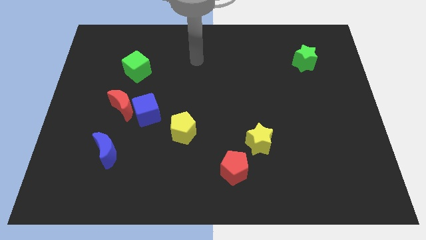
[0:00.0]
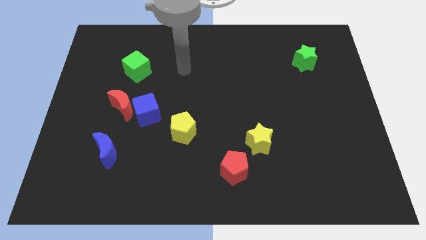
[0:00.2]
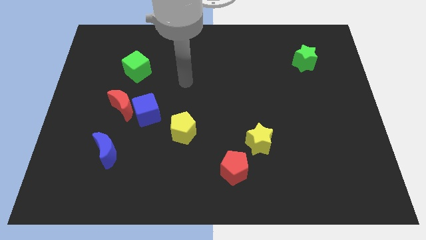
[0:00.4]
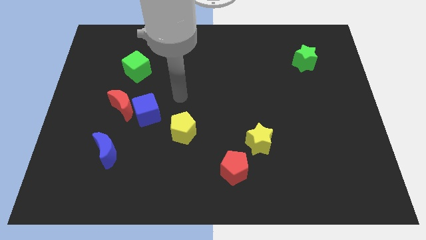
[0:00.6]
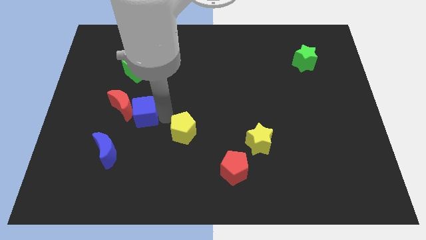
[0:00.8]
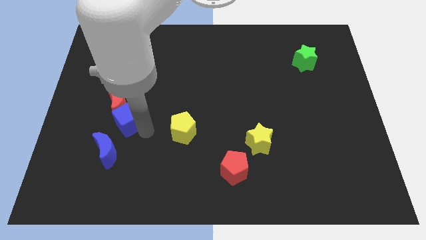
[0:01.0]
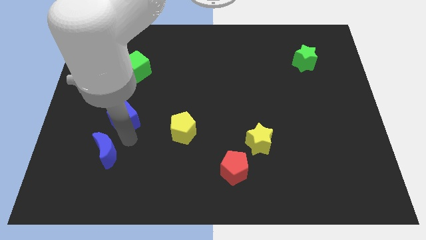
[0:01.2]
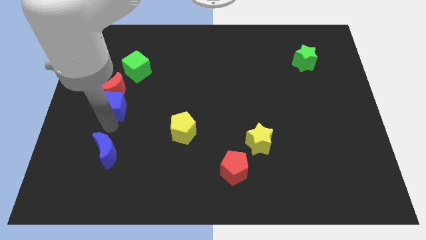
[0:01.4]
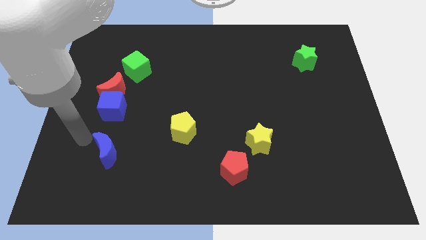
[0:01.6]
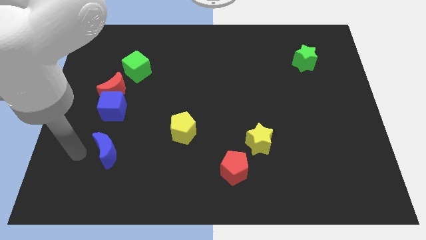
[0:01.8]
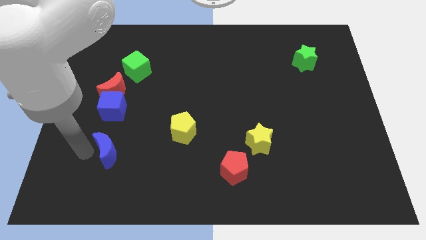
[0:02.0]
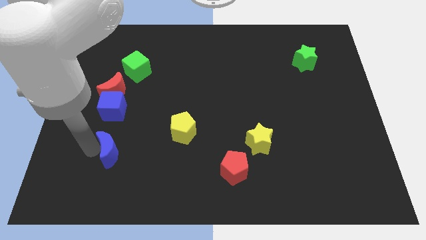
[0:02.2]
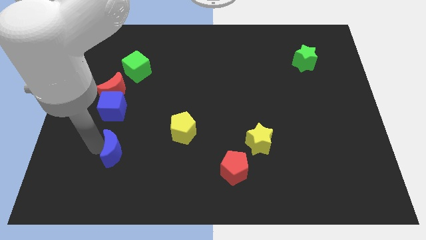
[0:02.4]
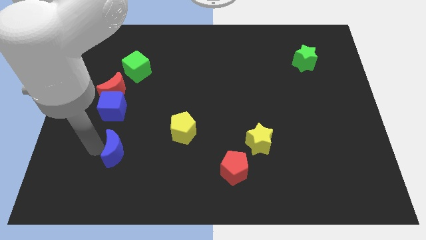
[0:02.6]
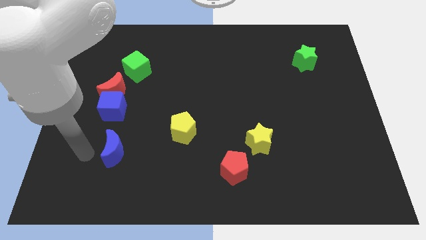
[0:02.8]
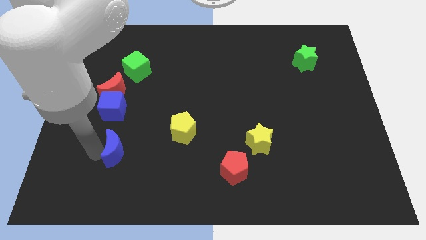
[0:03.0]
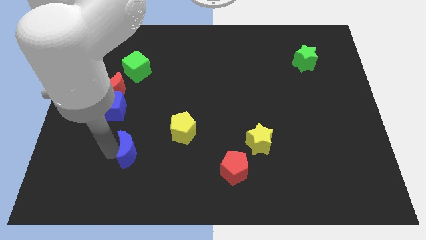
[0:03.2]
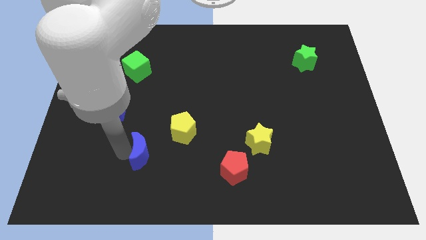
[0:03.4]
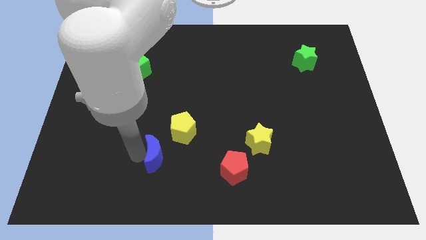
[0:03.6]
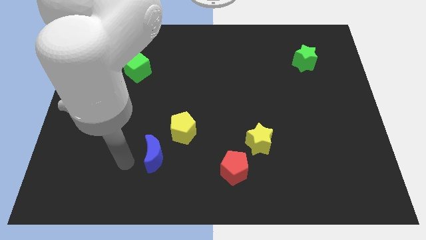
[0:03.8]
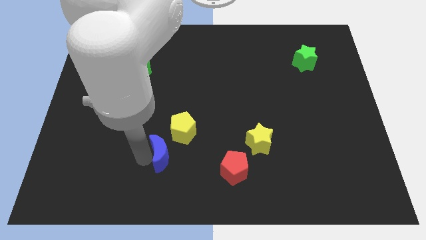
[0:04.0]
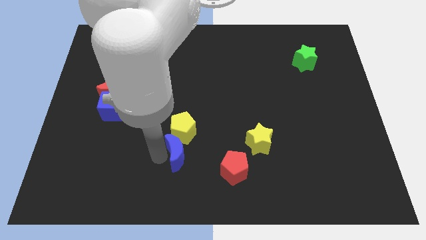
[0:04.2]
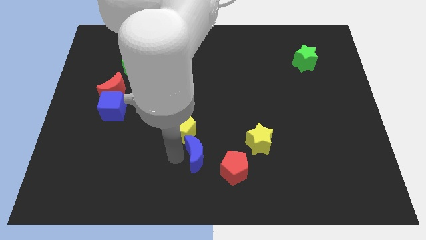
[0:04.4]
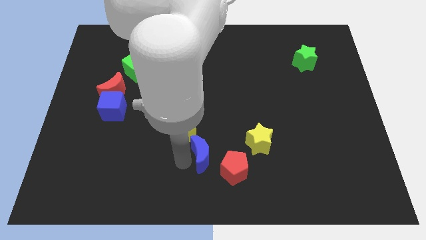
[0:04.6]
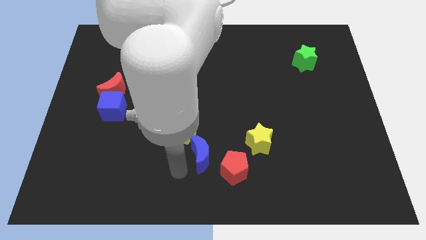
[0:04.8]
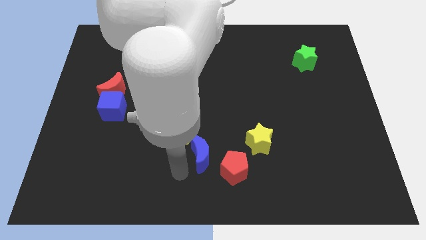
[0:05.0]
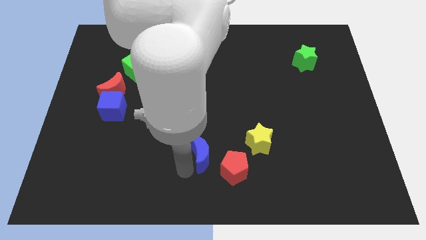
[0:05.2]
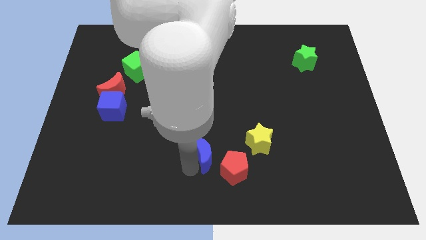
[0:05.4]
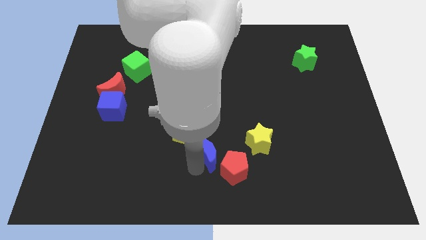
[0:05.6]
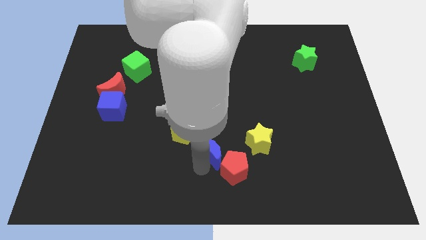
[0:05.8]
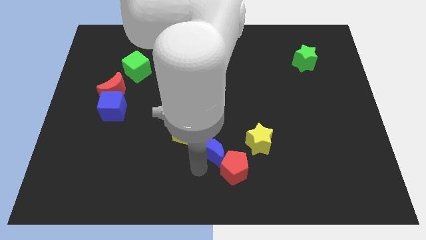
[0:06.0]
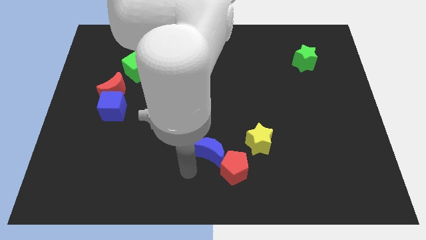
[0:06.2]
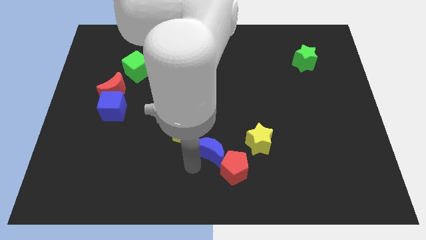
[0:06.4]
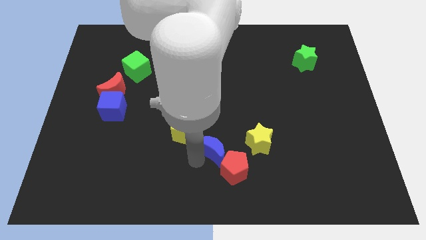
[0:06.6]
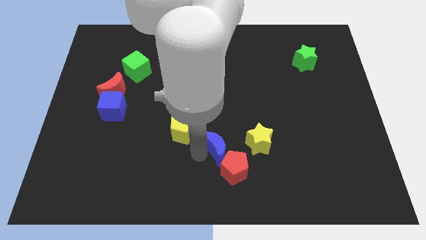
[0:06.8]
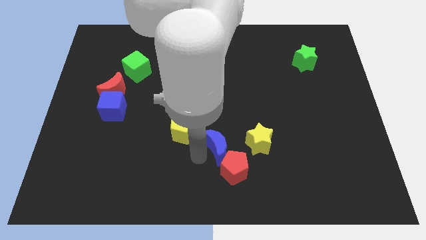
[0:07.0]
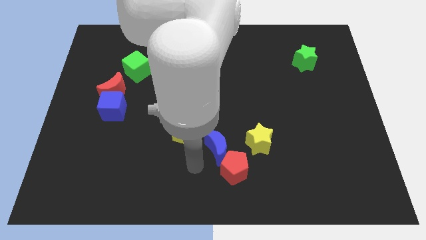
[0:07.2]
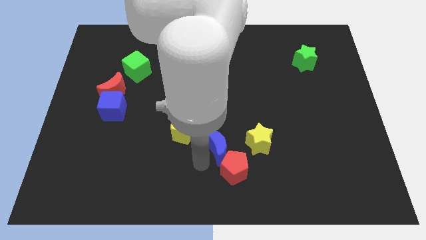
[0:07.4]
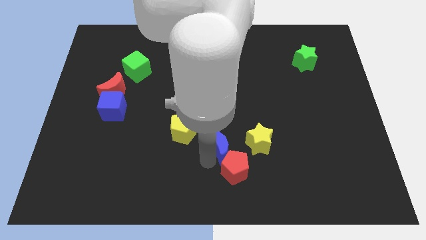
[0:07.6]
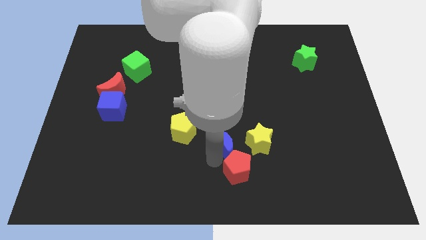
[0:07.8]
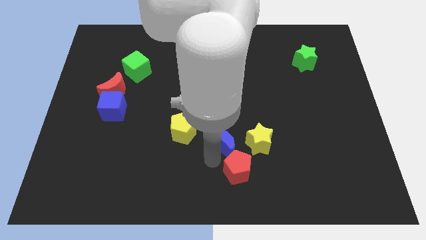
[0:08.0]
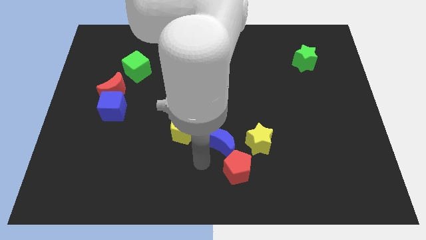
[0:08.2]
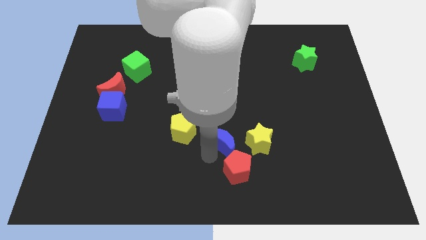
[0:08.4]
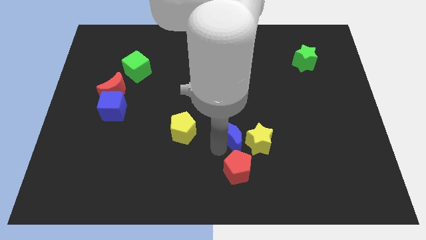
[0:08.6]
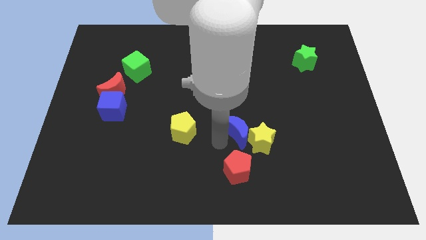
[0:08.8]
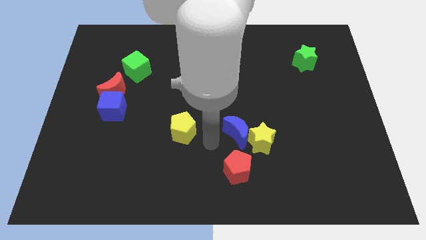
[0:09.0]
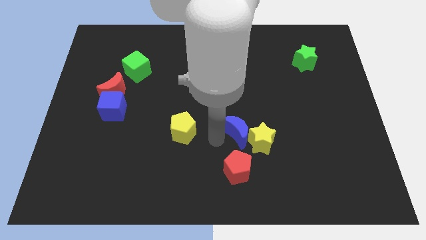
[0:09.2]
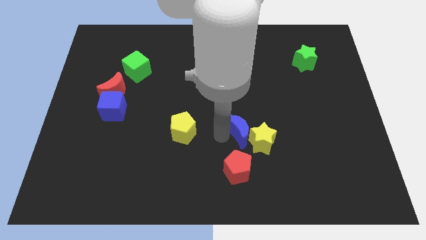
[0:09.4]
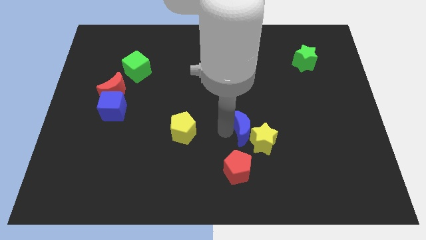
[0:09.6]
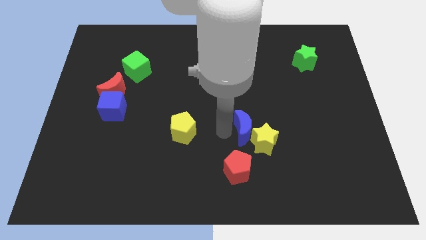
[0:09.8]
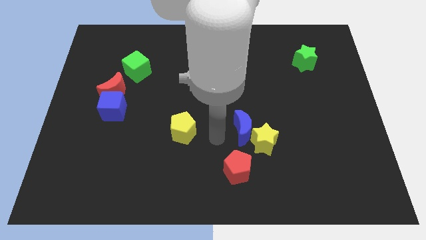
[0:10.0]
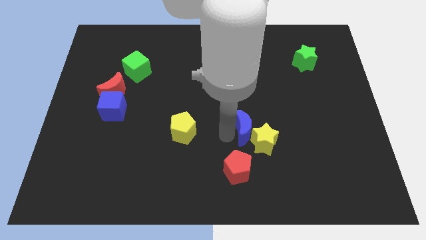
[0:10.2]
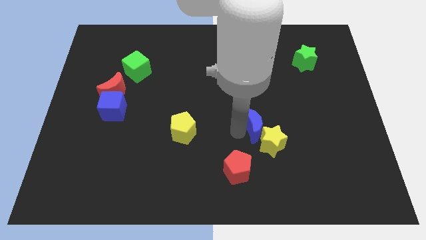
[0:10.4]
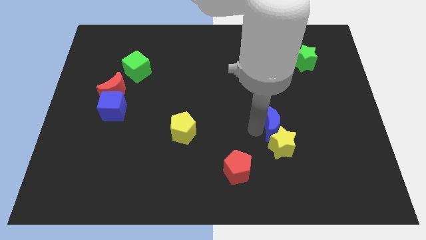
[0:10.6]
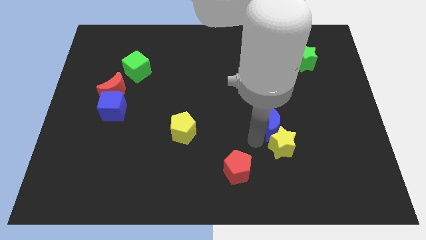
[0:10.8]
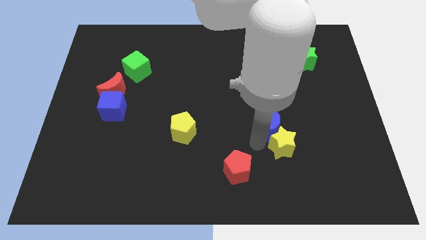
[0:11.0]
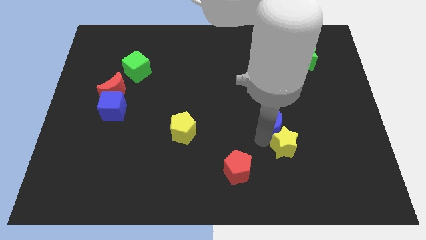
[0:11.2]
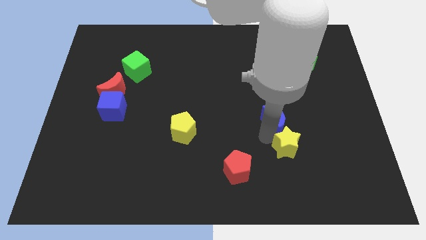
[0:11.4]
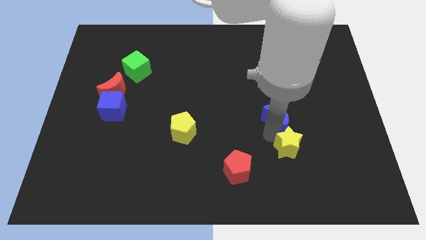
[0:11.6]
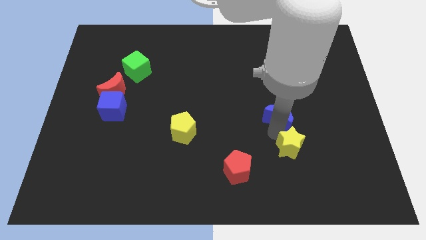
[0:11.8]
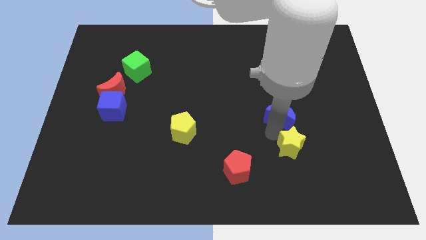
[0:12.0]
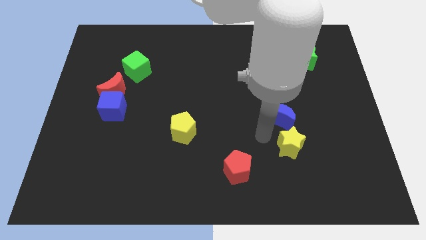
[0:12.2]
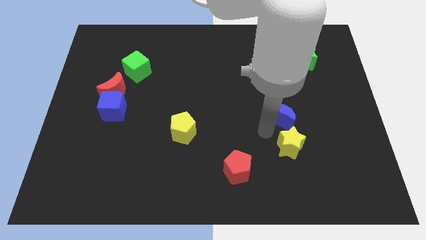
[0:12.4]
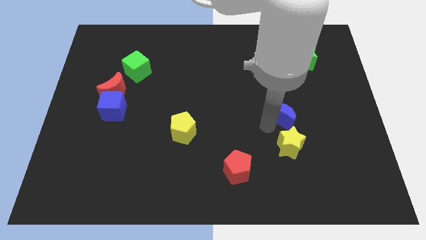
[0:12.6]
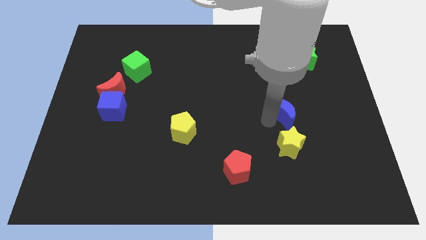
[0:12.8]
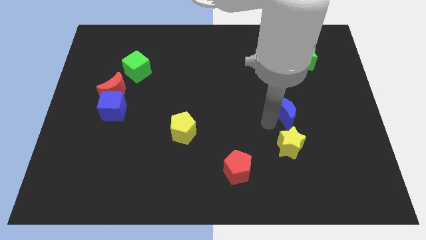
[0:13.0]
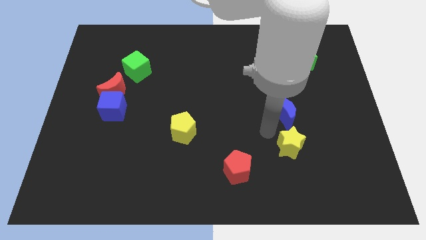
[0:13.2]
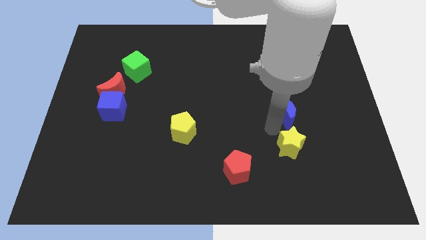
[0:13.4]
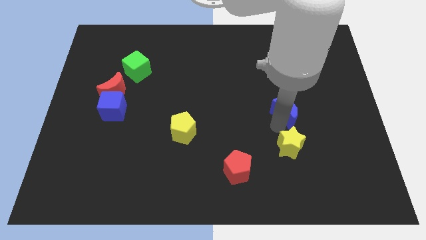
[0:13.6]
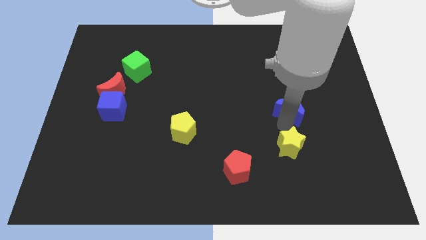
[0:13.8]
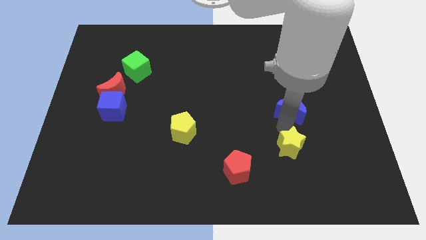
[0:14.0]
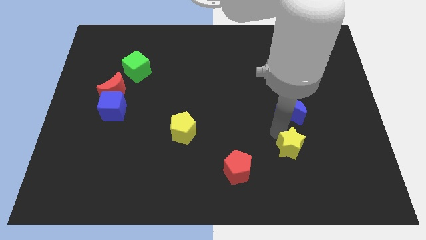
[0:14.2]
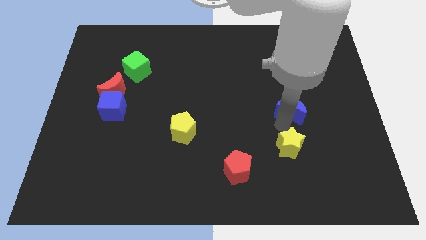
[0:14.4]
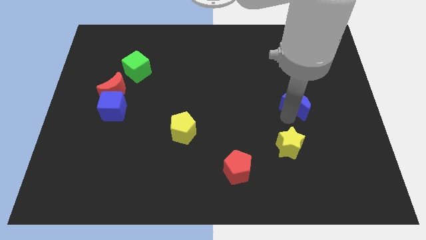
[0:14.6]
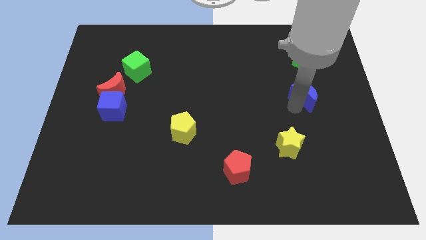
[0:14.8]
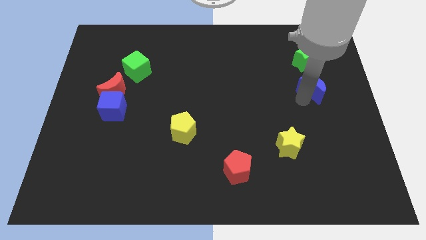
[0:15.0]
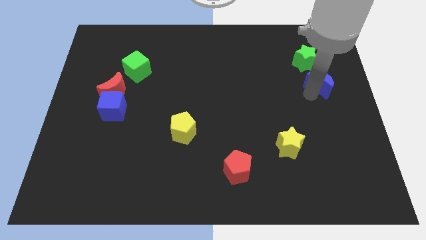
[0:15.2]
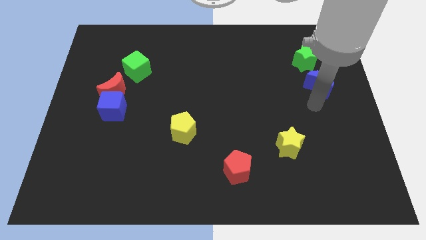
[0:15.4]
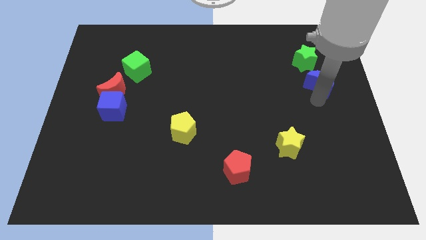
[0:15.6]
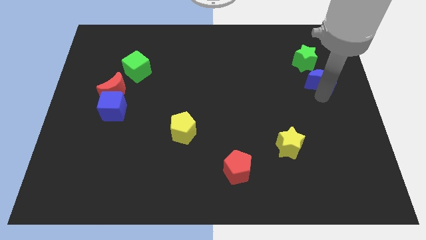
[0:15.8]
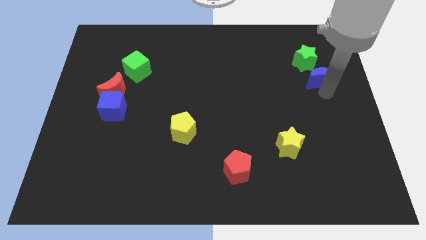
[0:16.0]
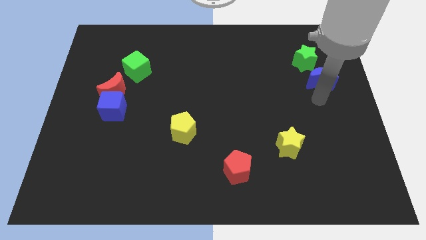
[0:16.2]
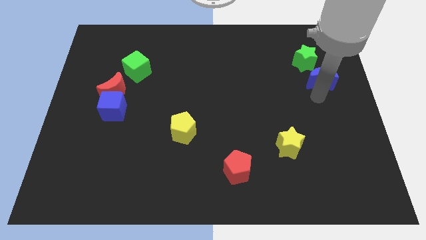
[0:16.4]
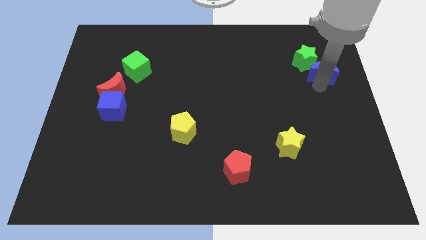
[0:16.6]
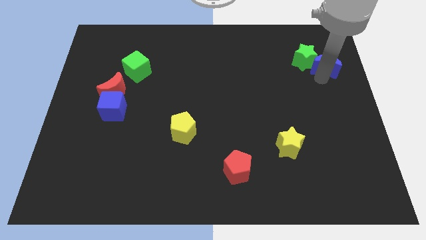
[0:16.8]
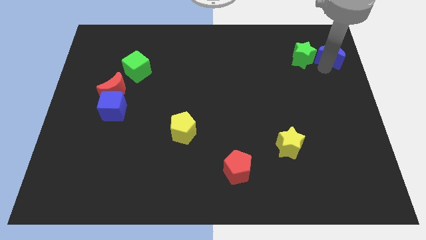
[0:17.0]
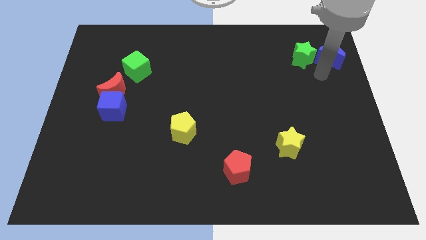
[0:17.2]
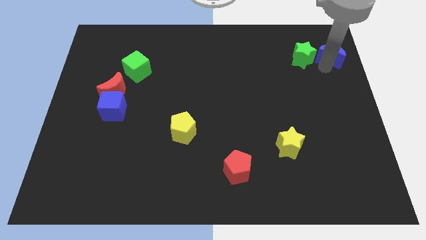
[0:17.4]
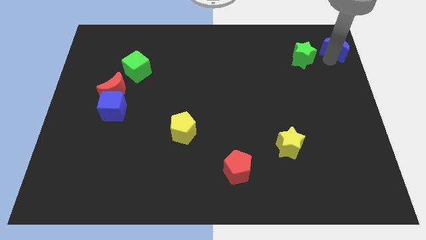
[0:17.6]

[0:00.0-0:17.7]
slide the blue moon to the upper right corner
